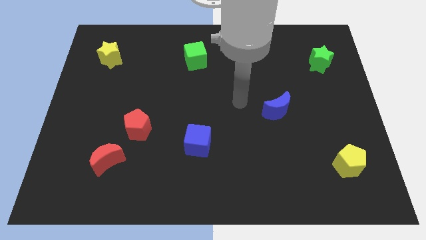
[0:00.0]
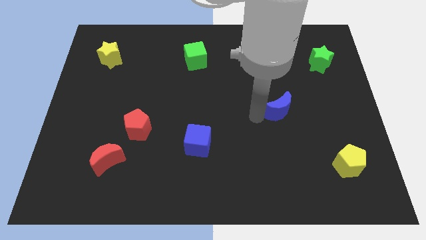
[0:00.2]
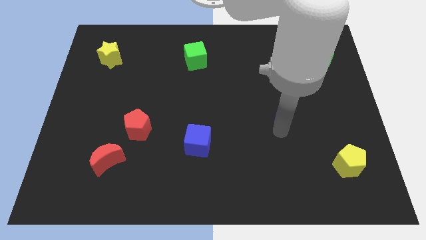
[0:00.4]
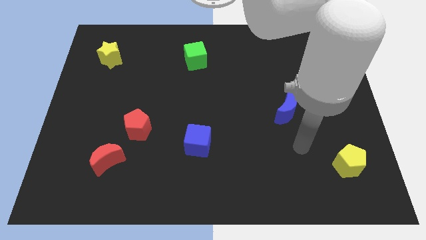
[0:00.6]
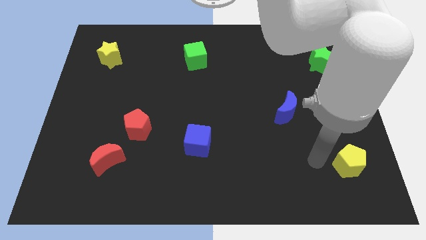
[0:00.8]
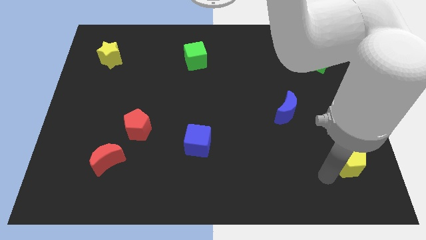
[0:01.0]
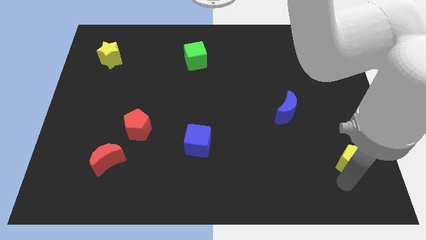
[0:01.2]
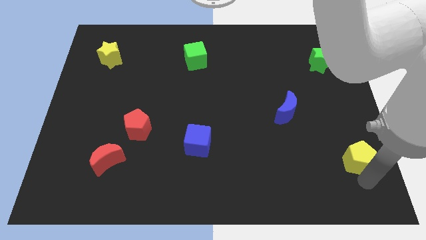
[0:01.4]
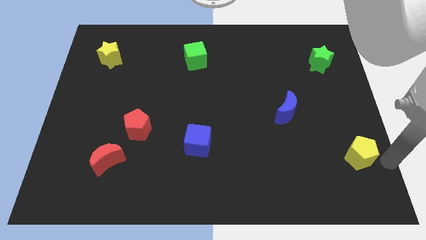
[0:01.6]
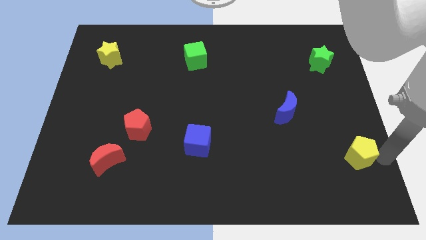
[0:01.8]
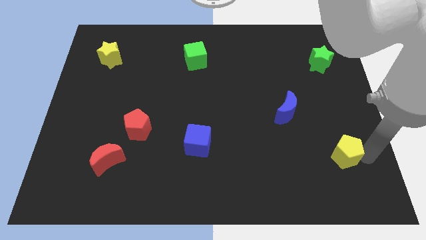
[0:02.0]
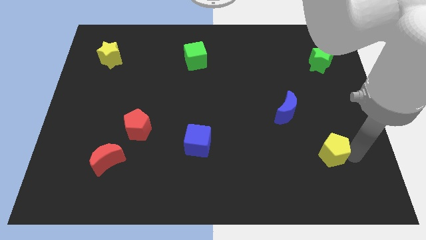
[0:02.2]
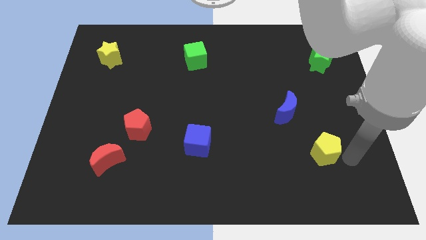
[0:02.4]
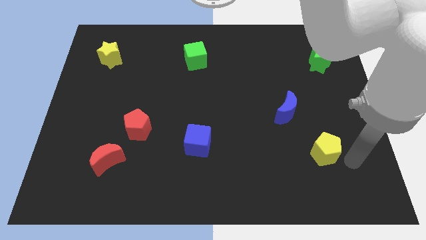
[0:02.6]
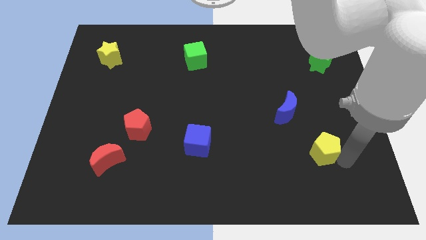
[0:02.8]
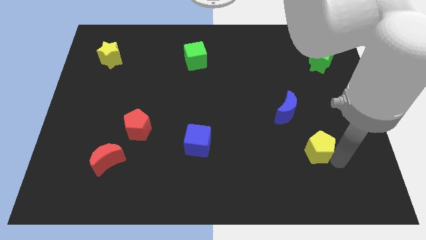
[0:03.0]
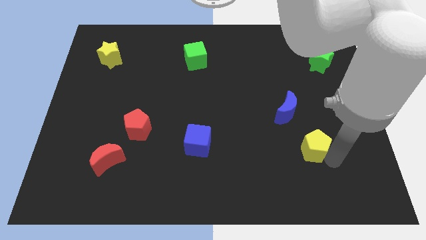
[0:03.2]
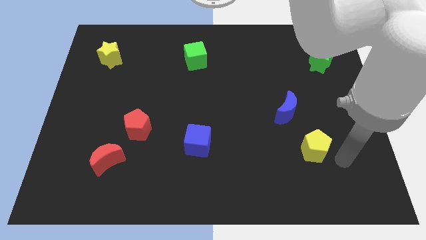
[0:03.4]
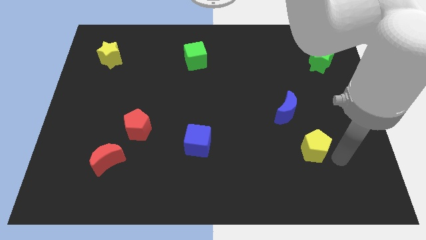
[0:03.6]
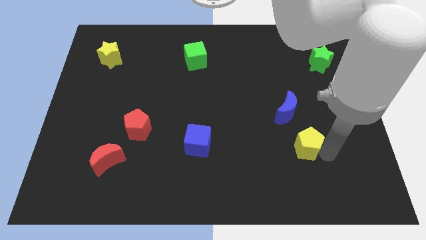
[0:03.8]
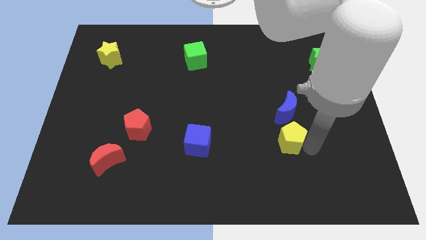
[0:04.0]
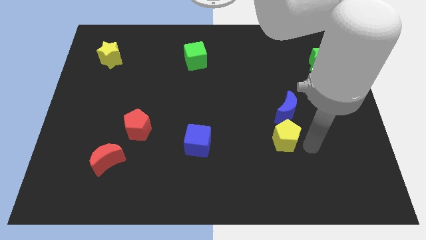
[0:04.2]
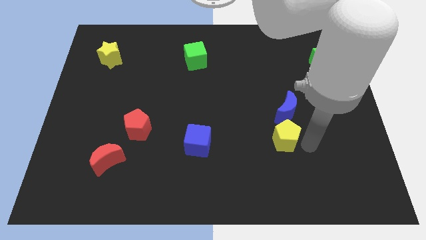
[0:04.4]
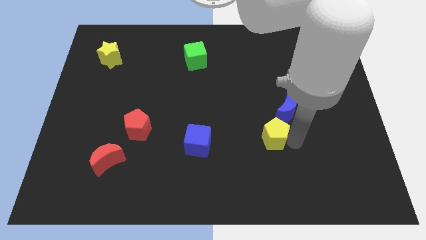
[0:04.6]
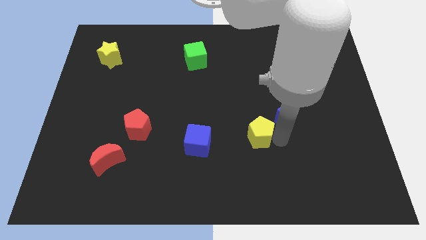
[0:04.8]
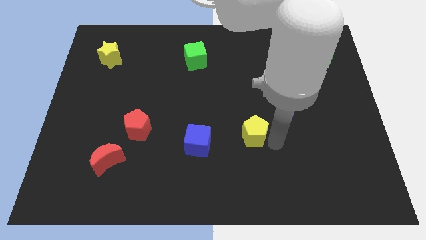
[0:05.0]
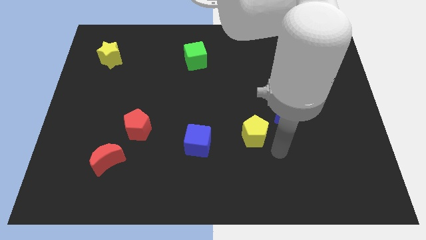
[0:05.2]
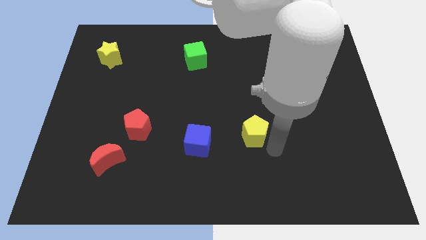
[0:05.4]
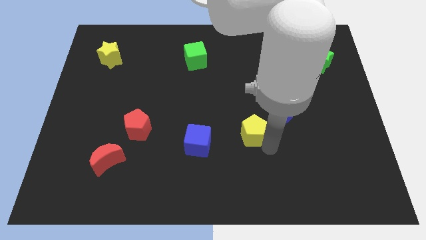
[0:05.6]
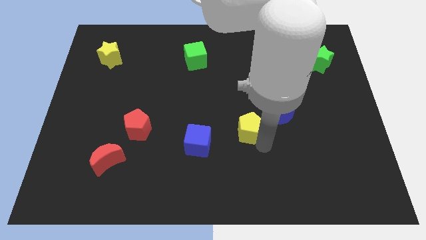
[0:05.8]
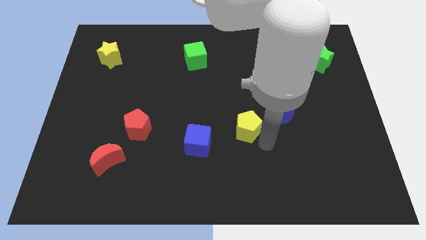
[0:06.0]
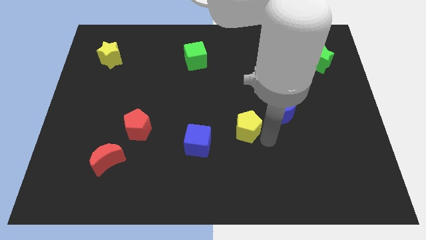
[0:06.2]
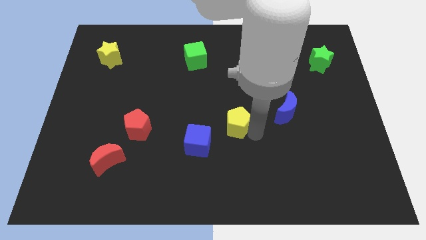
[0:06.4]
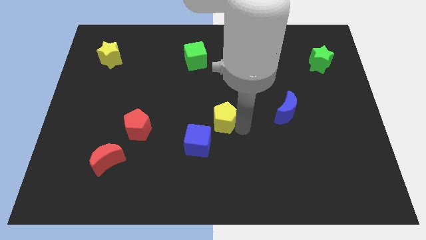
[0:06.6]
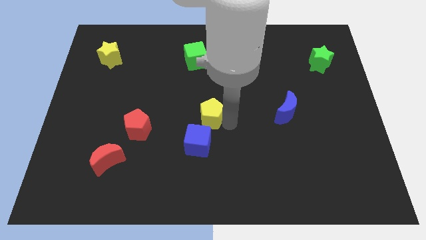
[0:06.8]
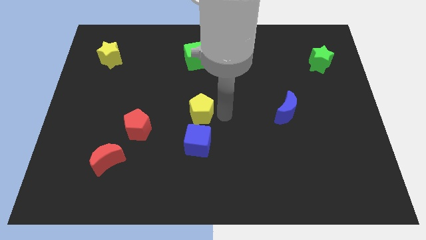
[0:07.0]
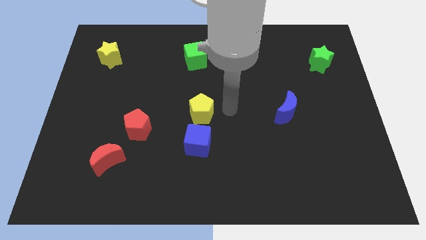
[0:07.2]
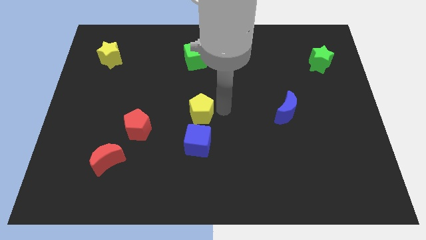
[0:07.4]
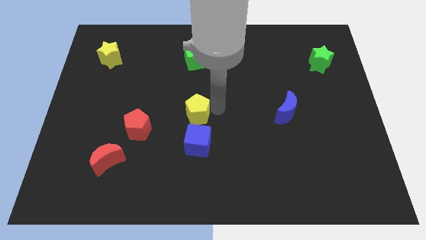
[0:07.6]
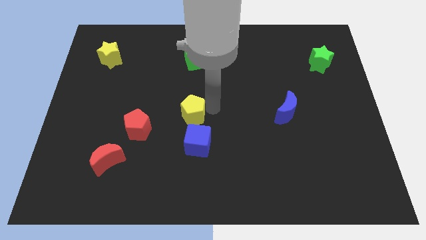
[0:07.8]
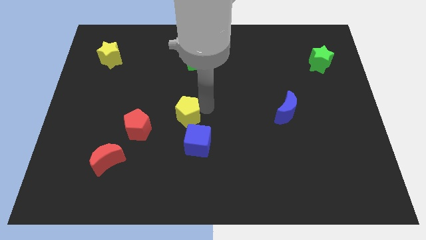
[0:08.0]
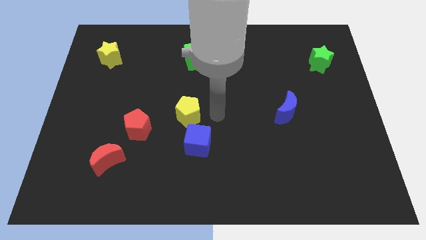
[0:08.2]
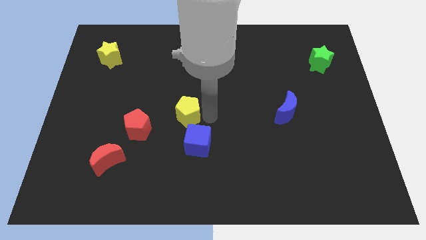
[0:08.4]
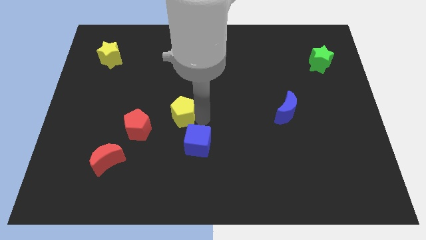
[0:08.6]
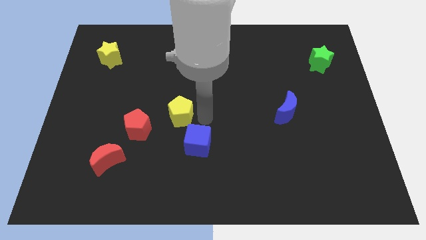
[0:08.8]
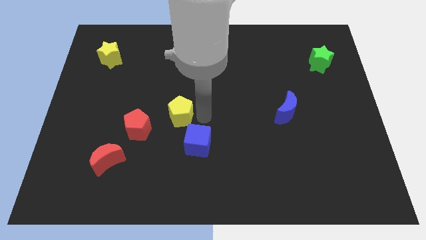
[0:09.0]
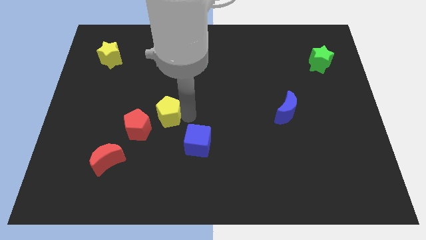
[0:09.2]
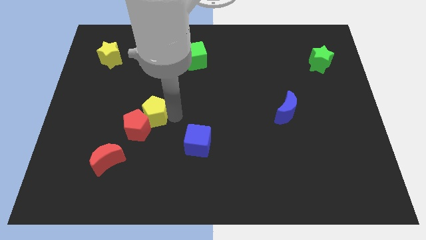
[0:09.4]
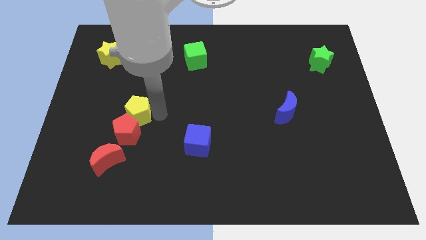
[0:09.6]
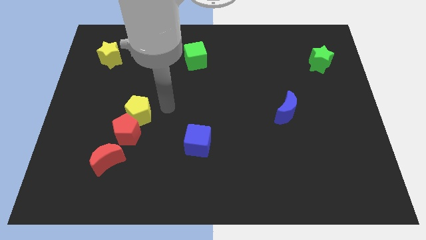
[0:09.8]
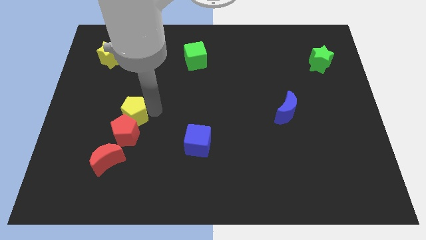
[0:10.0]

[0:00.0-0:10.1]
slide the yellow pentagon to the top side of the red moon

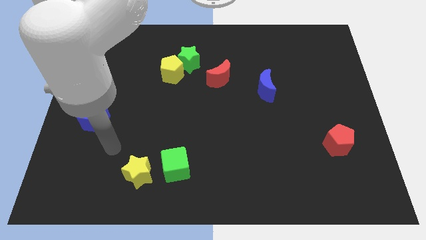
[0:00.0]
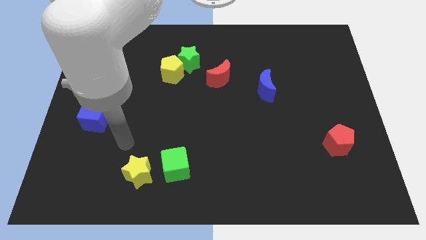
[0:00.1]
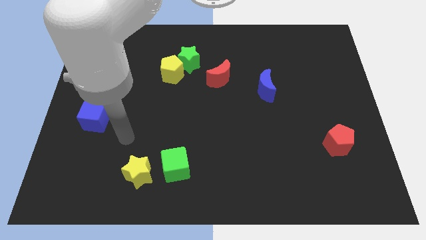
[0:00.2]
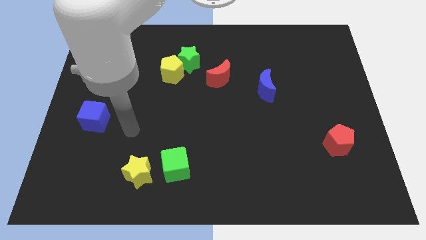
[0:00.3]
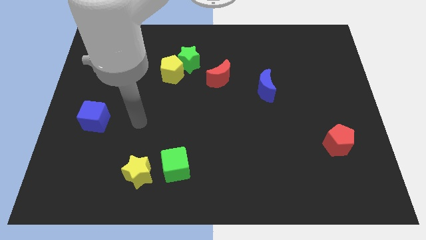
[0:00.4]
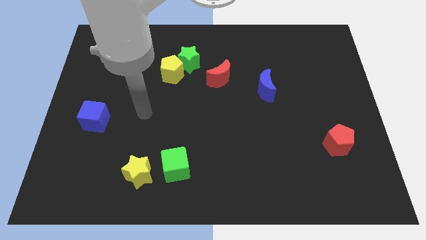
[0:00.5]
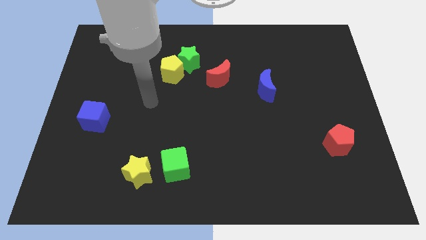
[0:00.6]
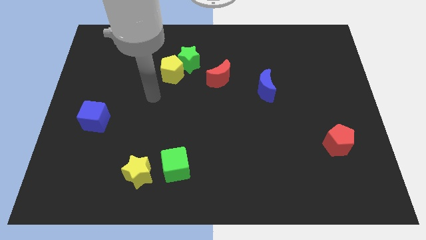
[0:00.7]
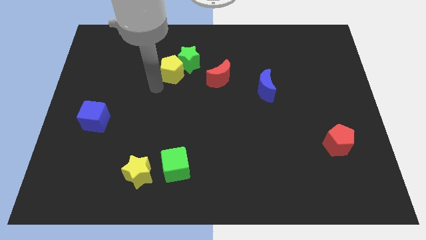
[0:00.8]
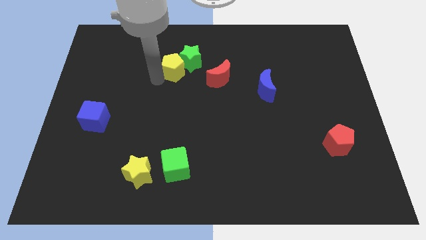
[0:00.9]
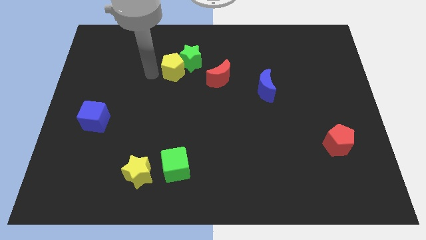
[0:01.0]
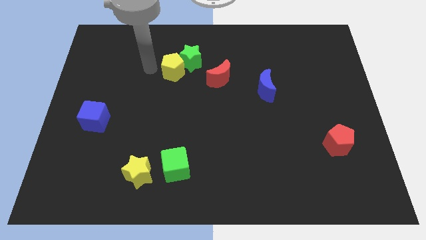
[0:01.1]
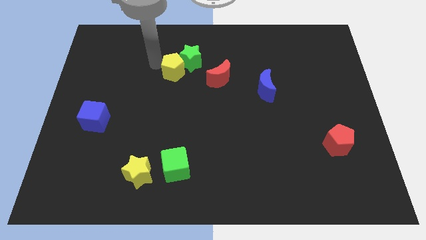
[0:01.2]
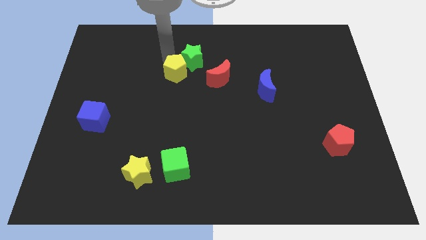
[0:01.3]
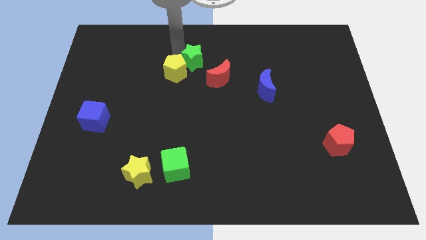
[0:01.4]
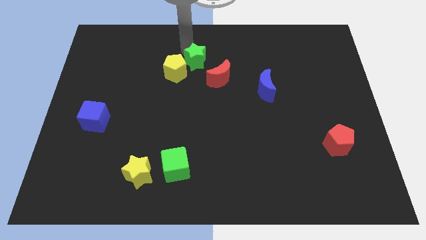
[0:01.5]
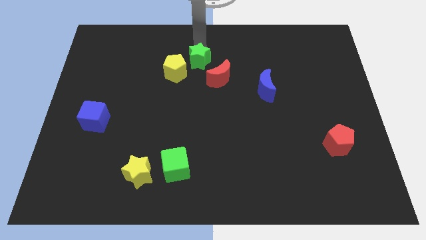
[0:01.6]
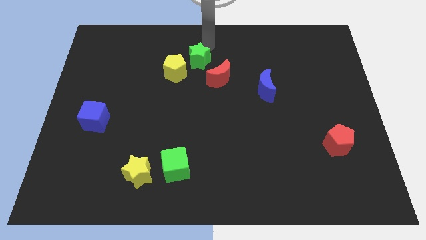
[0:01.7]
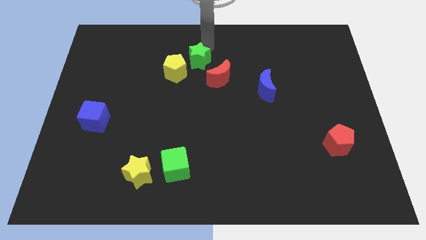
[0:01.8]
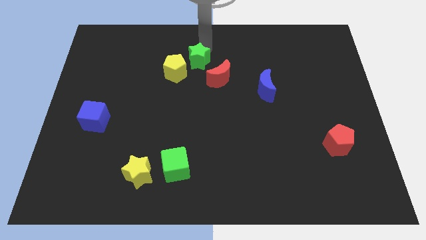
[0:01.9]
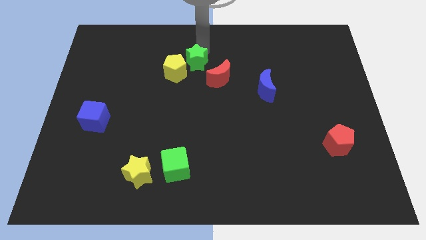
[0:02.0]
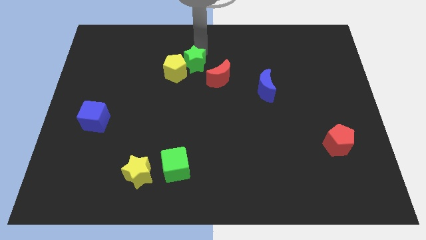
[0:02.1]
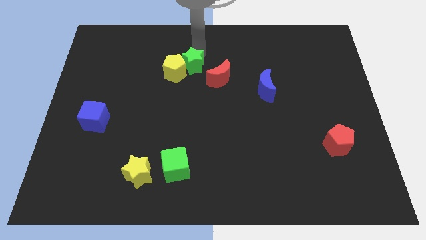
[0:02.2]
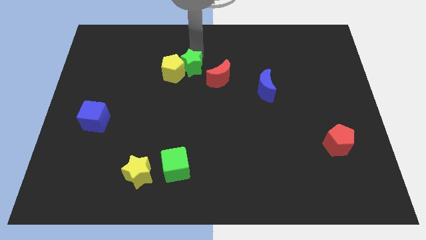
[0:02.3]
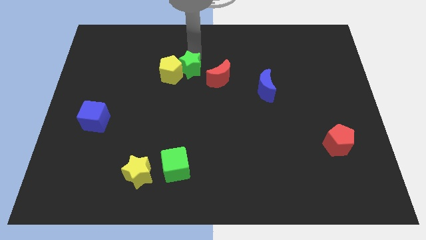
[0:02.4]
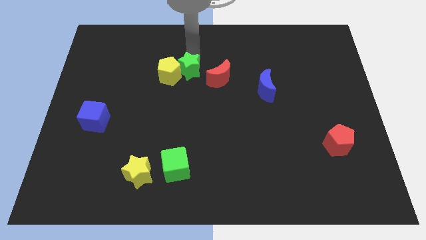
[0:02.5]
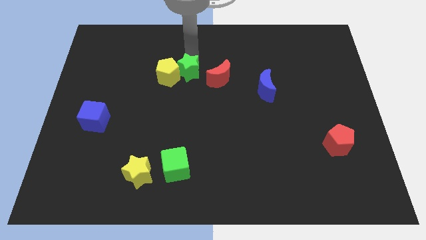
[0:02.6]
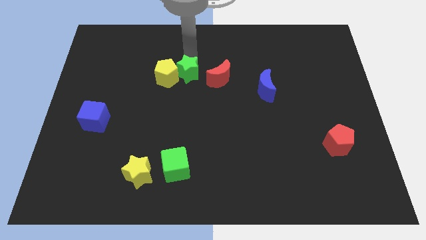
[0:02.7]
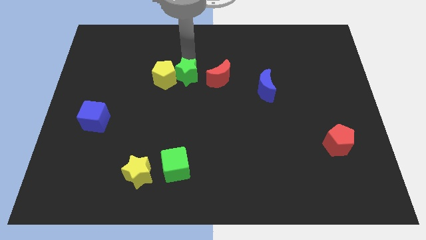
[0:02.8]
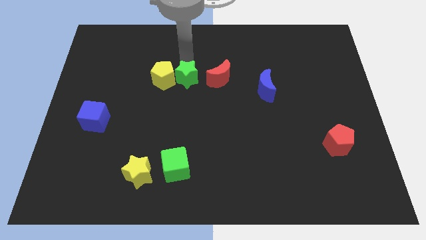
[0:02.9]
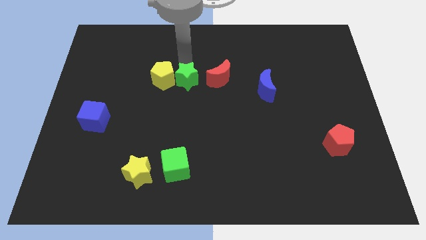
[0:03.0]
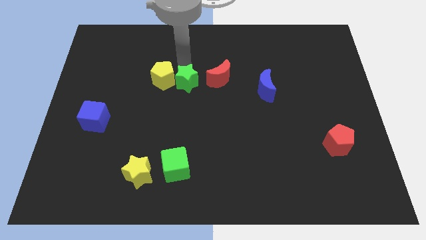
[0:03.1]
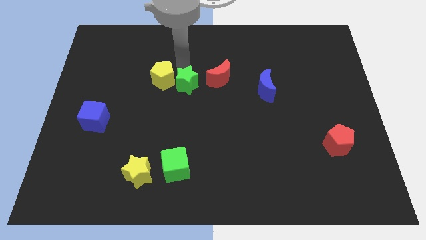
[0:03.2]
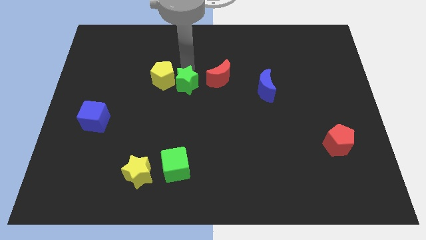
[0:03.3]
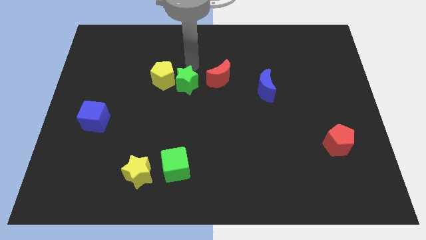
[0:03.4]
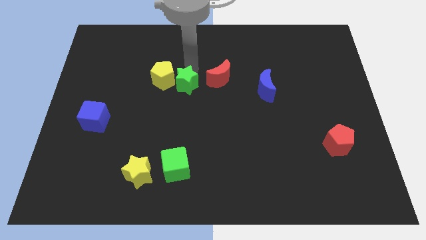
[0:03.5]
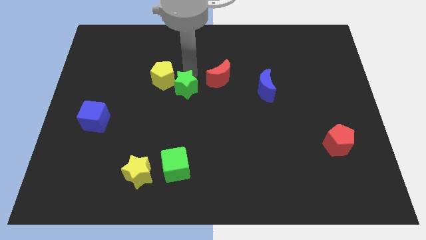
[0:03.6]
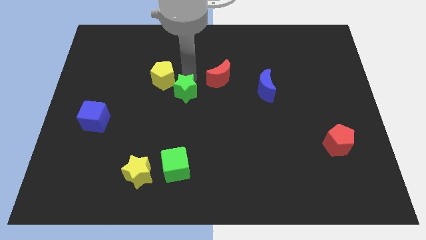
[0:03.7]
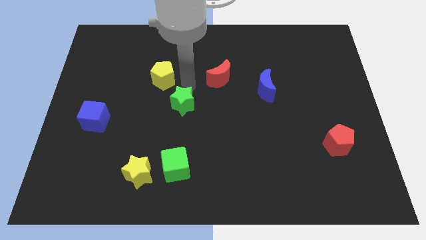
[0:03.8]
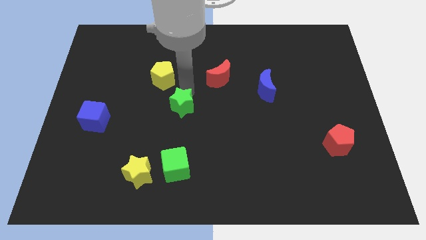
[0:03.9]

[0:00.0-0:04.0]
slide the green star to the top side of the green cube
